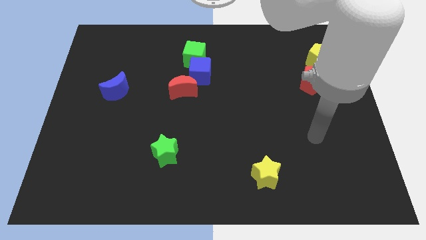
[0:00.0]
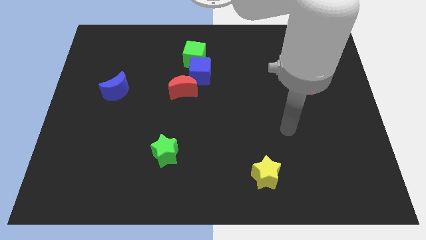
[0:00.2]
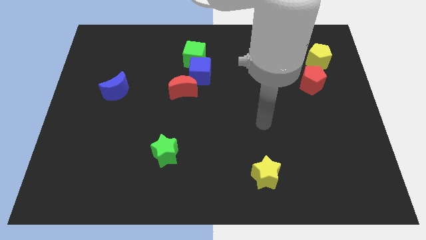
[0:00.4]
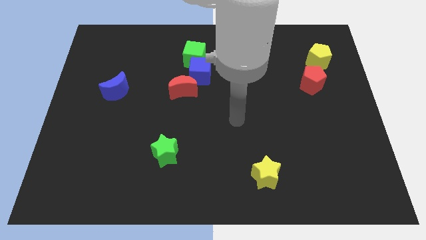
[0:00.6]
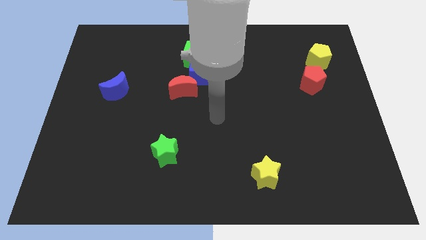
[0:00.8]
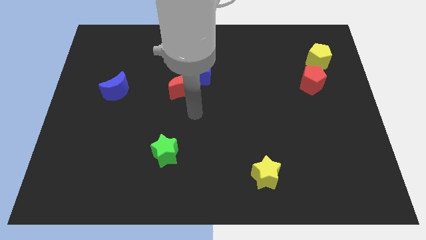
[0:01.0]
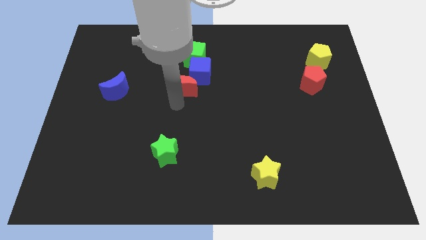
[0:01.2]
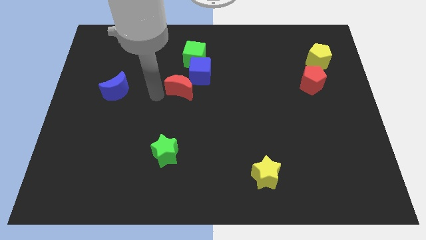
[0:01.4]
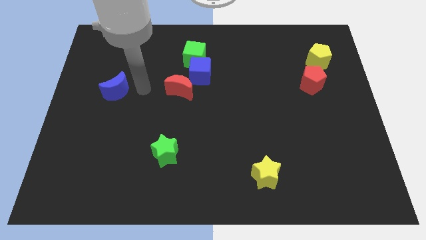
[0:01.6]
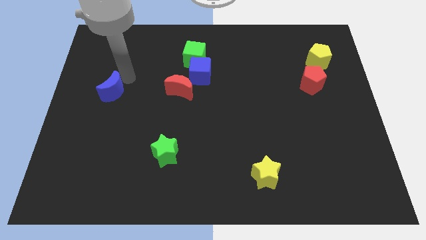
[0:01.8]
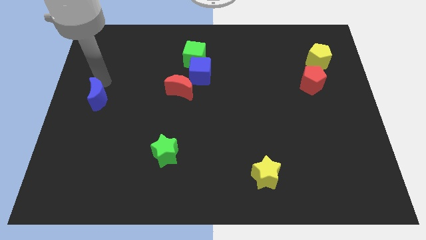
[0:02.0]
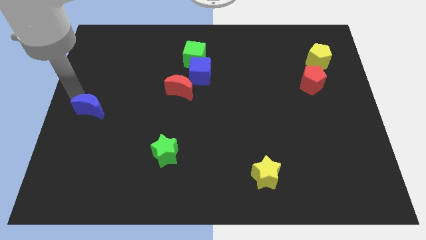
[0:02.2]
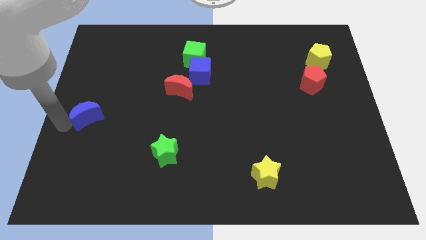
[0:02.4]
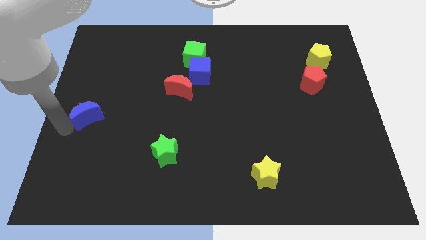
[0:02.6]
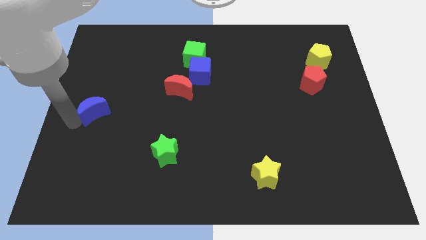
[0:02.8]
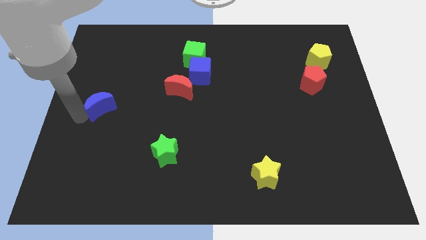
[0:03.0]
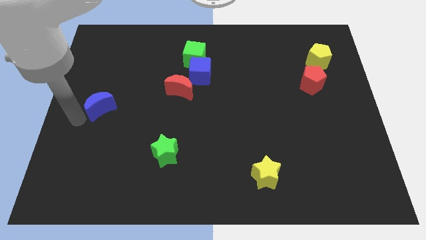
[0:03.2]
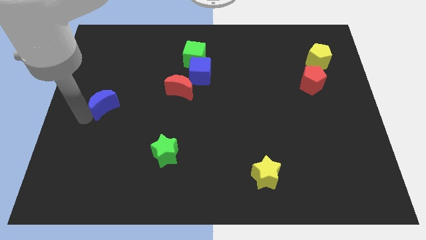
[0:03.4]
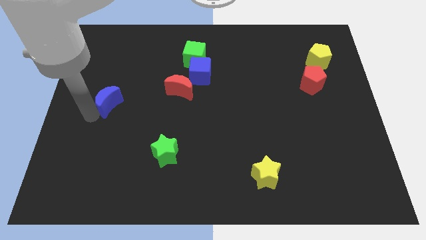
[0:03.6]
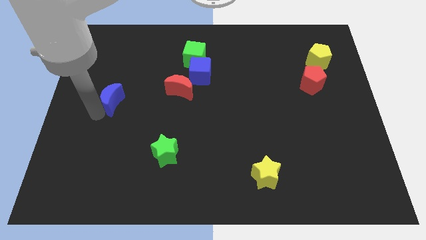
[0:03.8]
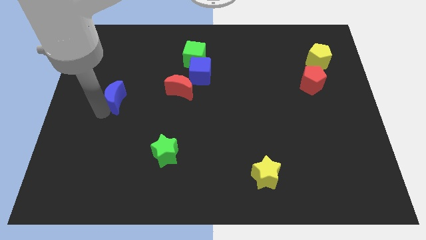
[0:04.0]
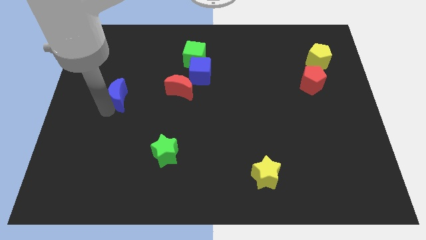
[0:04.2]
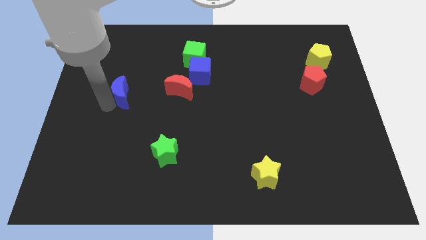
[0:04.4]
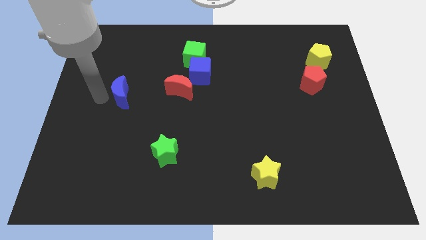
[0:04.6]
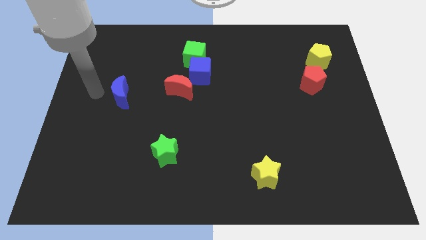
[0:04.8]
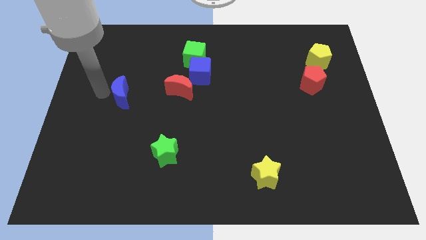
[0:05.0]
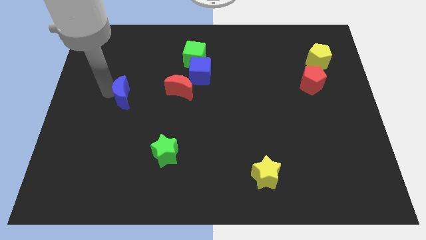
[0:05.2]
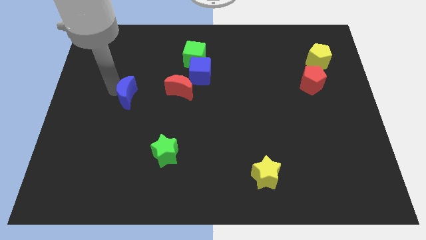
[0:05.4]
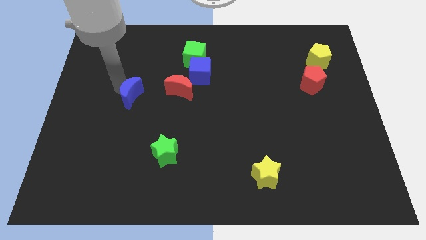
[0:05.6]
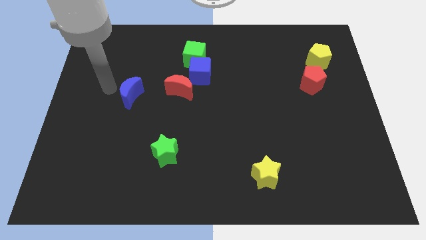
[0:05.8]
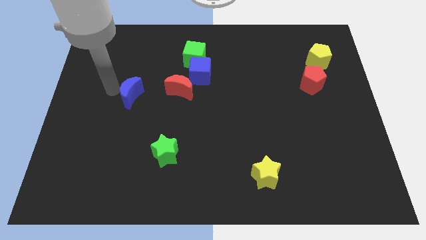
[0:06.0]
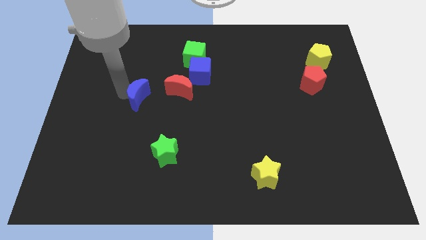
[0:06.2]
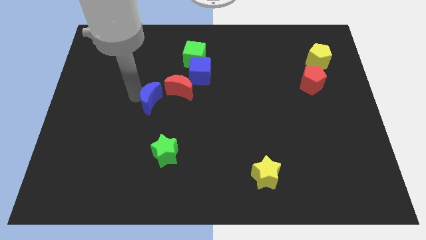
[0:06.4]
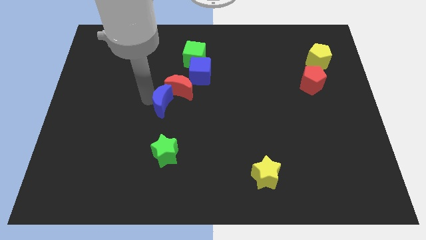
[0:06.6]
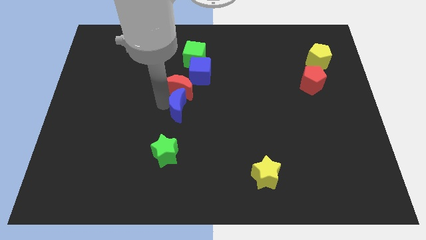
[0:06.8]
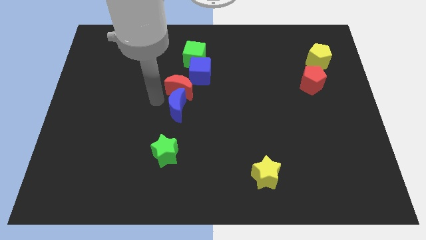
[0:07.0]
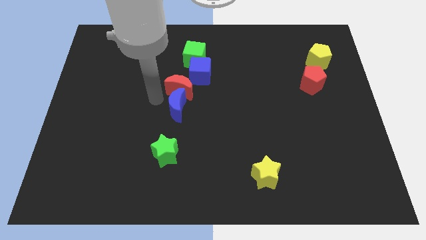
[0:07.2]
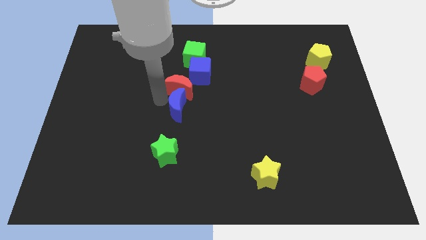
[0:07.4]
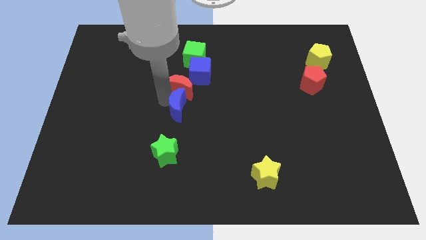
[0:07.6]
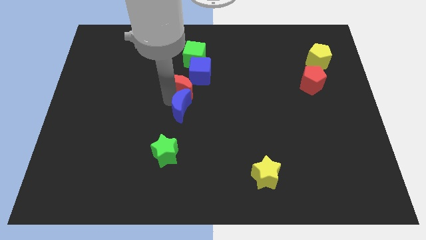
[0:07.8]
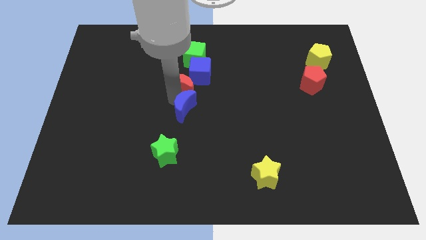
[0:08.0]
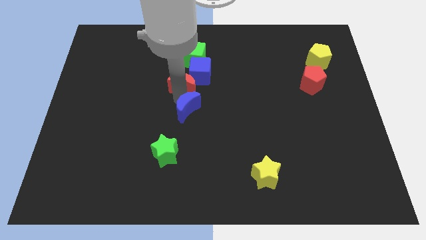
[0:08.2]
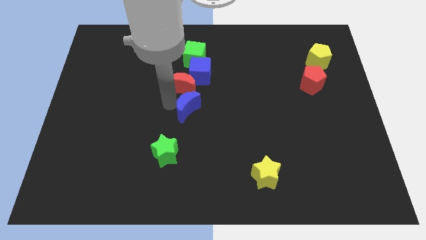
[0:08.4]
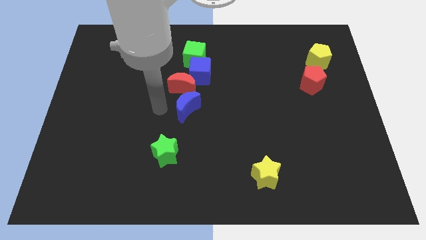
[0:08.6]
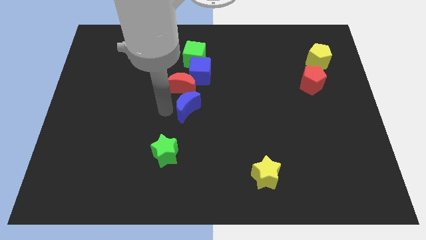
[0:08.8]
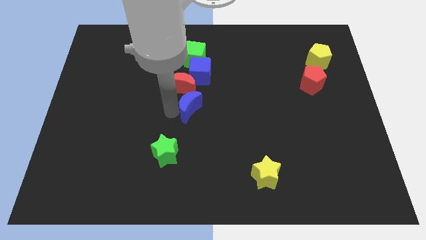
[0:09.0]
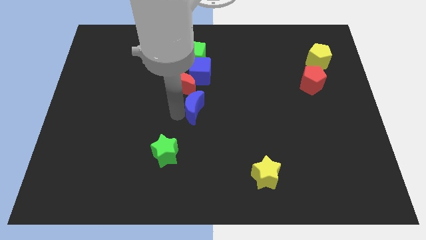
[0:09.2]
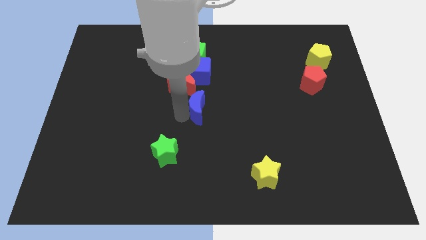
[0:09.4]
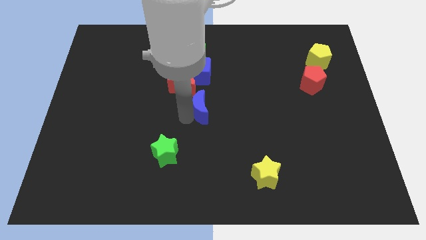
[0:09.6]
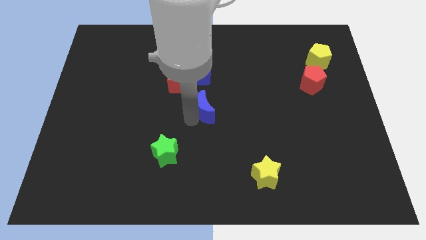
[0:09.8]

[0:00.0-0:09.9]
push the blue moon to the right

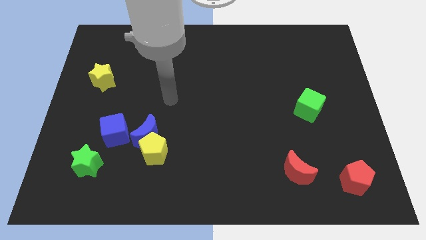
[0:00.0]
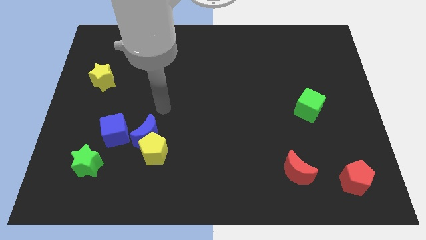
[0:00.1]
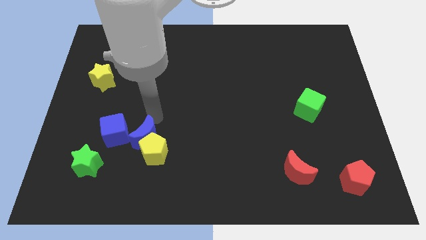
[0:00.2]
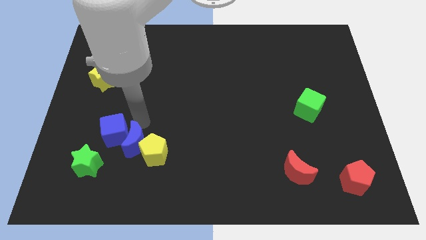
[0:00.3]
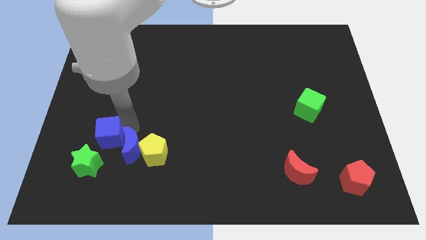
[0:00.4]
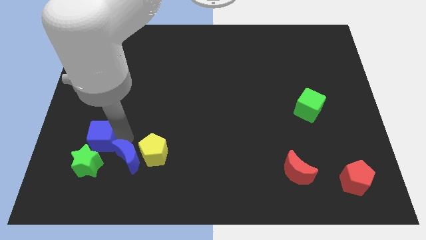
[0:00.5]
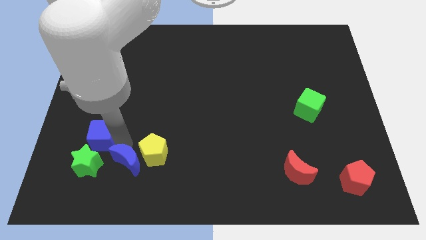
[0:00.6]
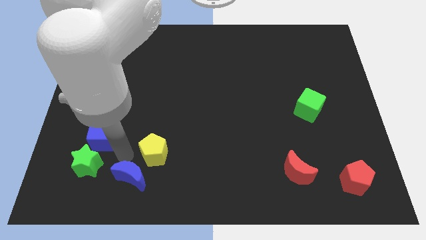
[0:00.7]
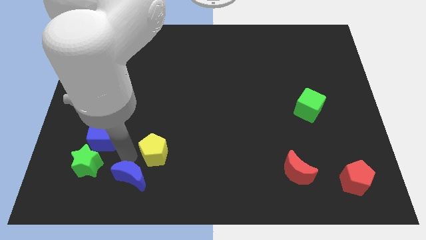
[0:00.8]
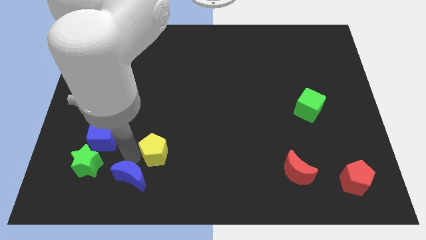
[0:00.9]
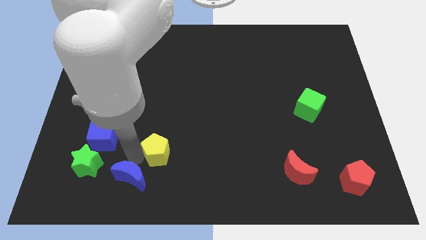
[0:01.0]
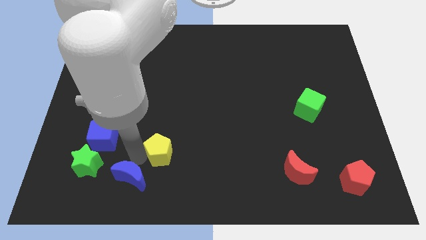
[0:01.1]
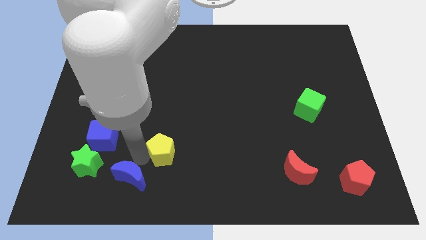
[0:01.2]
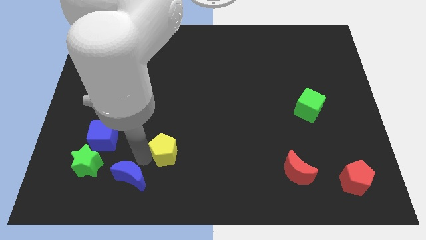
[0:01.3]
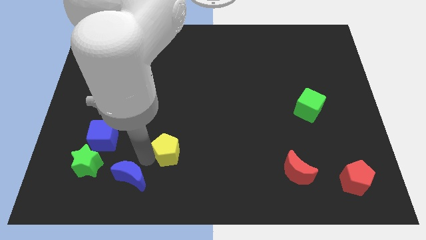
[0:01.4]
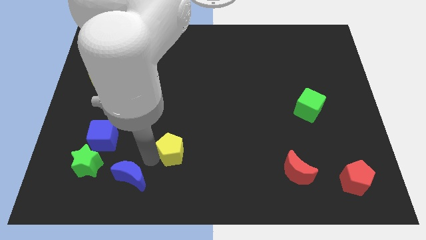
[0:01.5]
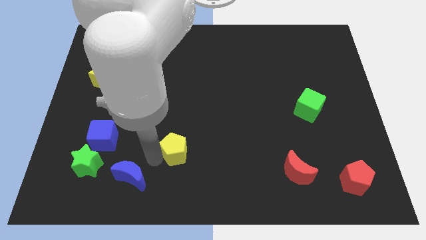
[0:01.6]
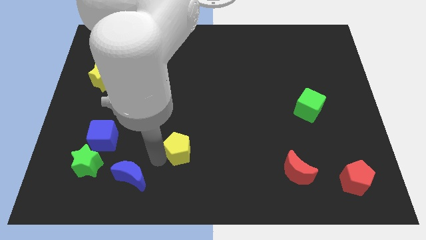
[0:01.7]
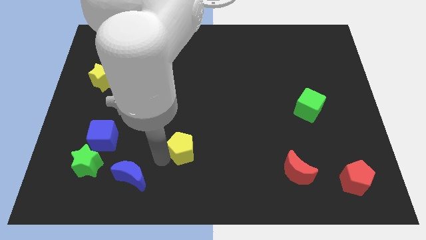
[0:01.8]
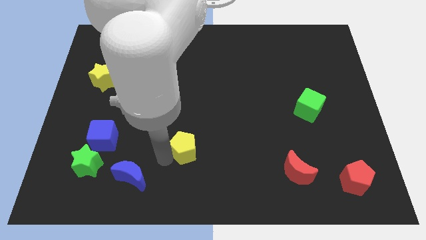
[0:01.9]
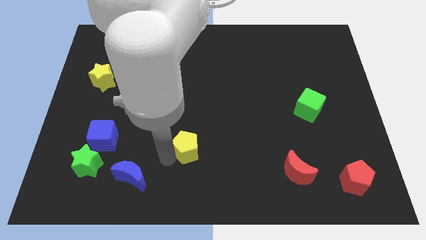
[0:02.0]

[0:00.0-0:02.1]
move the yellow pentagon a bit to the right

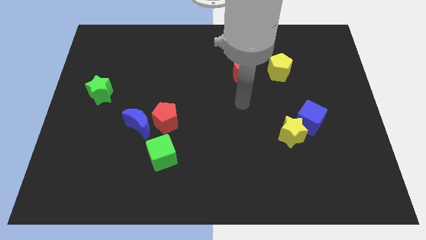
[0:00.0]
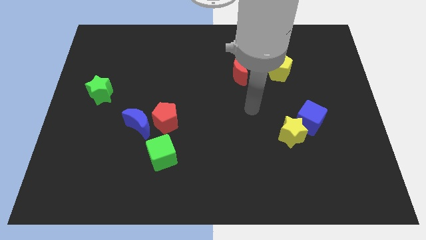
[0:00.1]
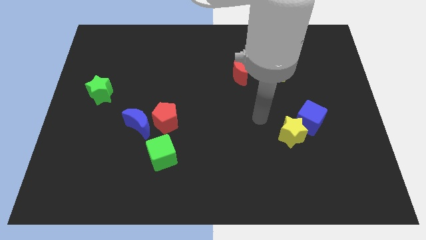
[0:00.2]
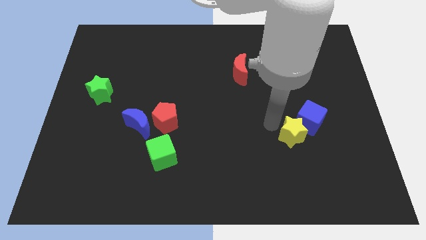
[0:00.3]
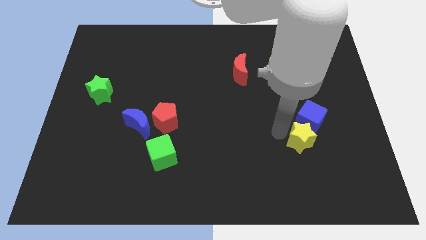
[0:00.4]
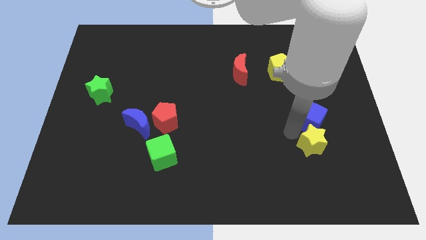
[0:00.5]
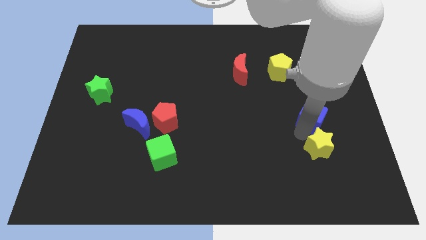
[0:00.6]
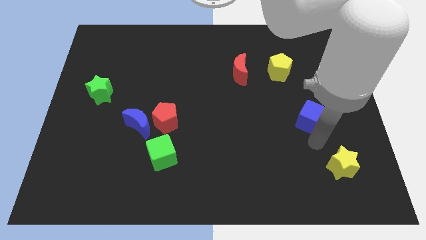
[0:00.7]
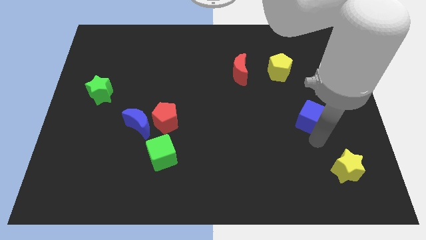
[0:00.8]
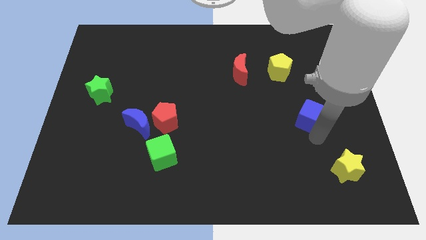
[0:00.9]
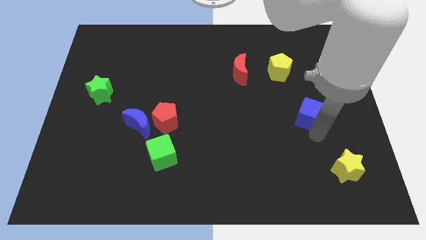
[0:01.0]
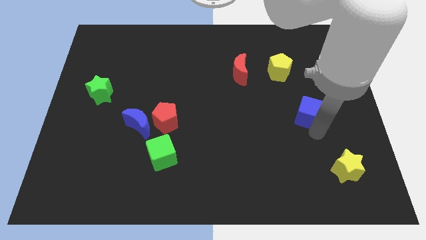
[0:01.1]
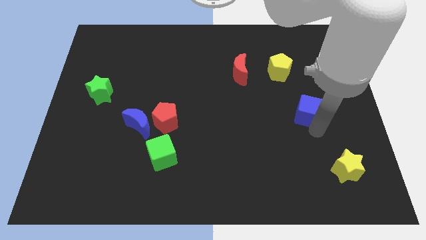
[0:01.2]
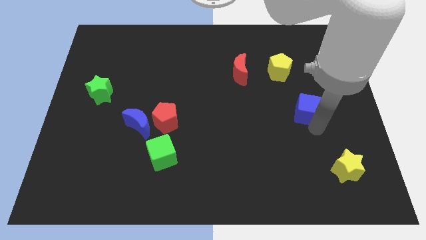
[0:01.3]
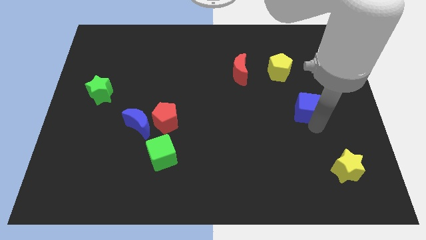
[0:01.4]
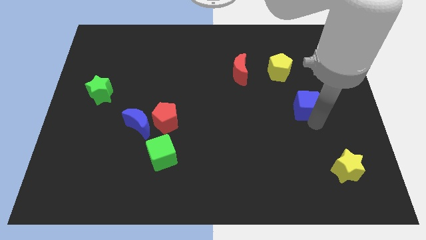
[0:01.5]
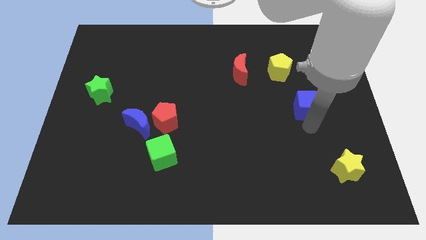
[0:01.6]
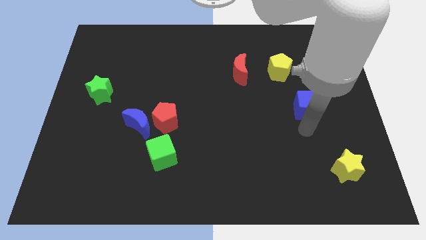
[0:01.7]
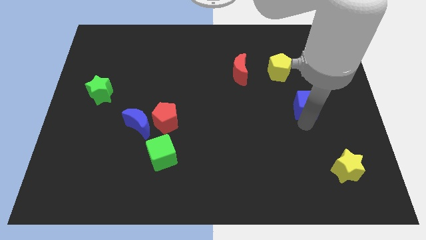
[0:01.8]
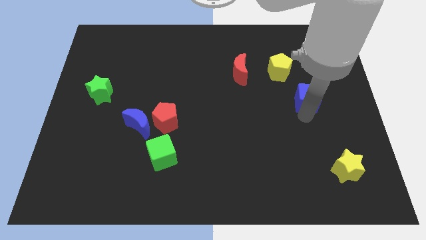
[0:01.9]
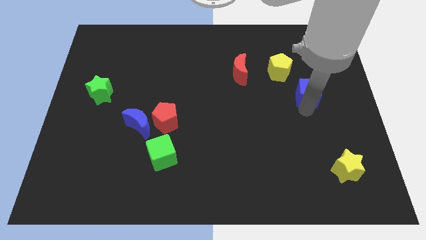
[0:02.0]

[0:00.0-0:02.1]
slide the blue cube slightly up
